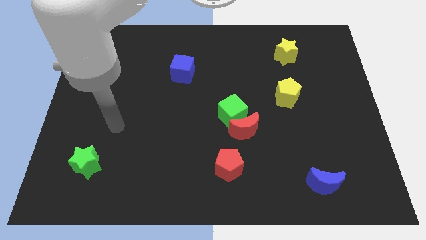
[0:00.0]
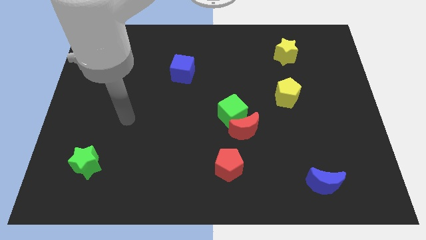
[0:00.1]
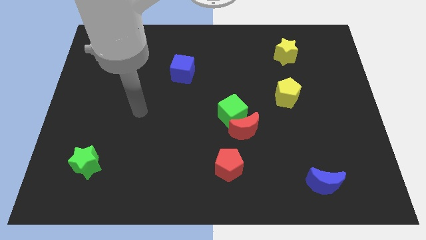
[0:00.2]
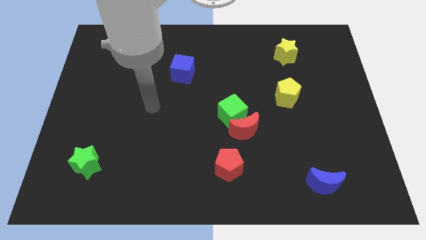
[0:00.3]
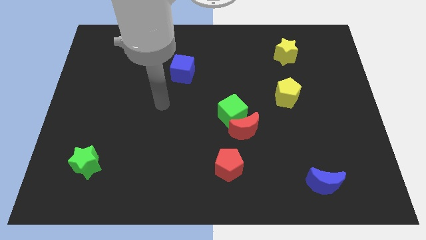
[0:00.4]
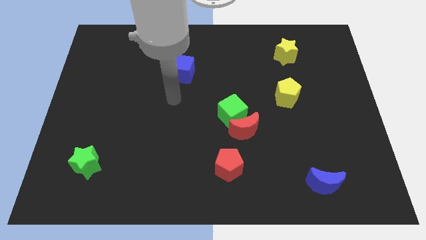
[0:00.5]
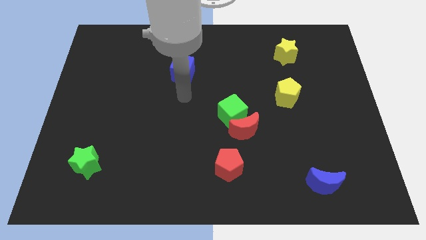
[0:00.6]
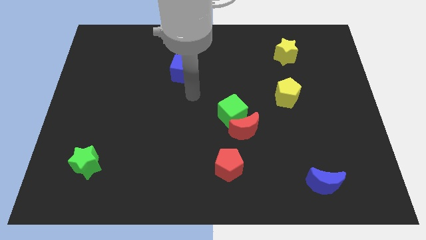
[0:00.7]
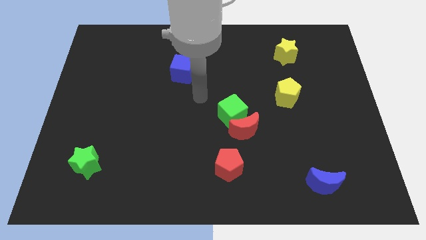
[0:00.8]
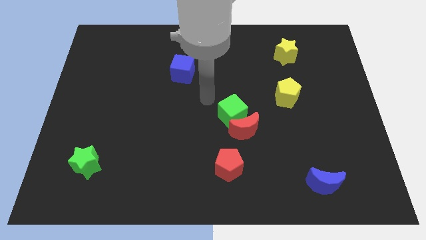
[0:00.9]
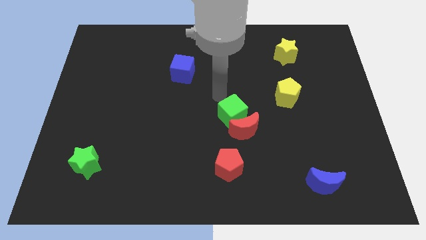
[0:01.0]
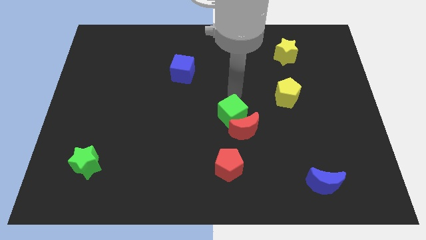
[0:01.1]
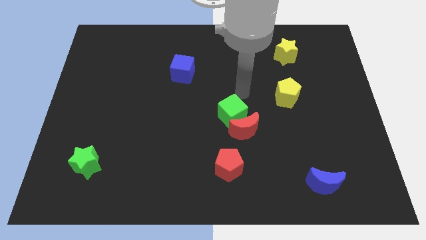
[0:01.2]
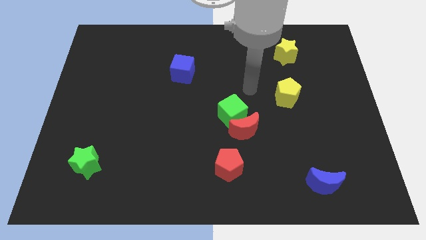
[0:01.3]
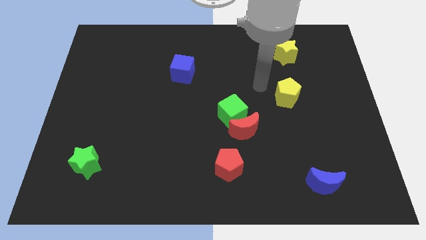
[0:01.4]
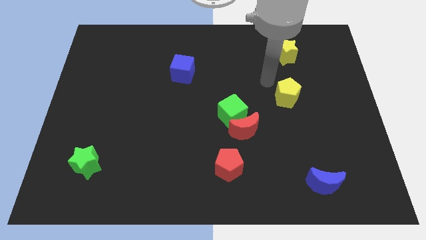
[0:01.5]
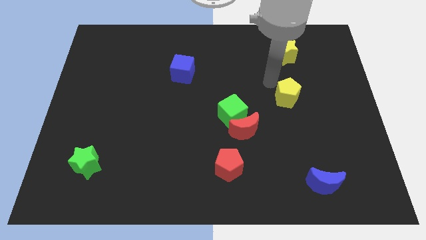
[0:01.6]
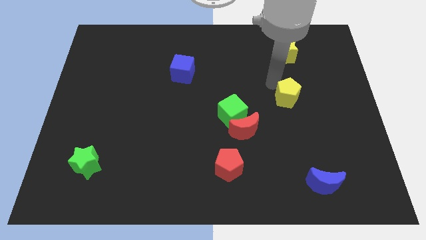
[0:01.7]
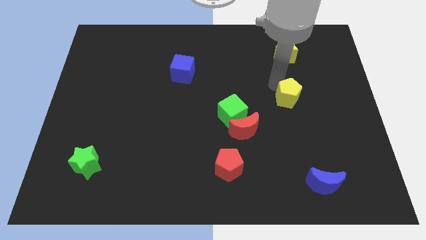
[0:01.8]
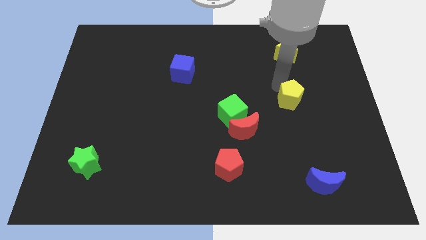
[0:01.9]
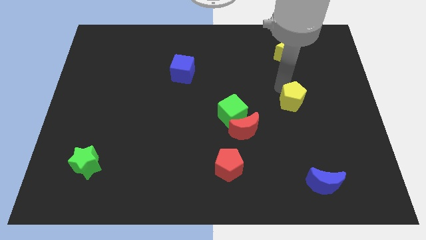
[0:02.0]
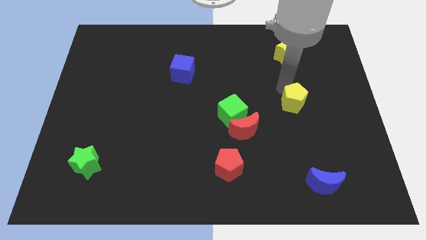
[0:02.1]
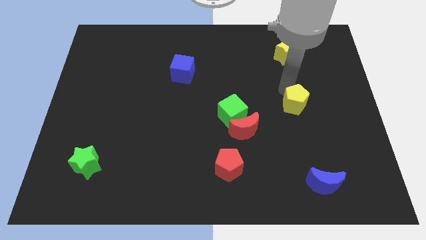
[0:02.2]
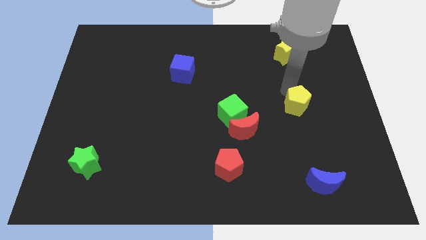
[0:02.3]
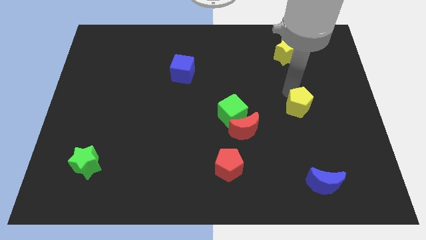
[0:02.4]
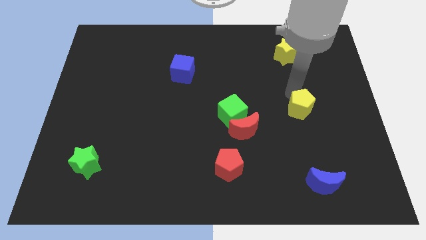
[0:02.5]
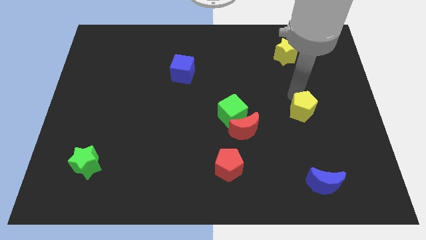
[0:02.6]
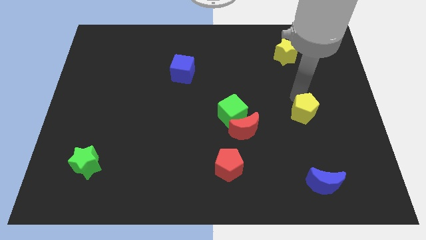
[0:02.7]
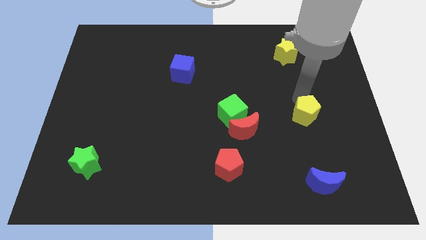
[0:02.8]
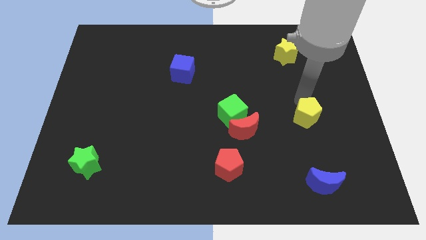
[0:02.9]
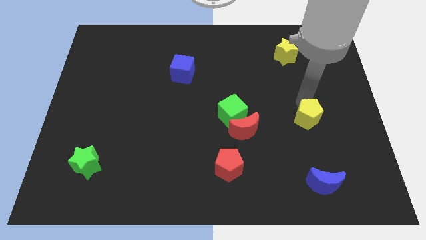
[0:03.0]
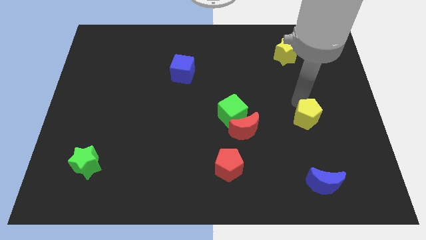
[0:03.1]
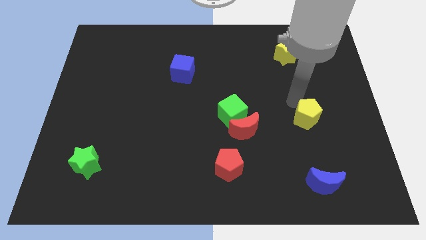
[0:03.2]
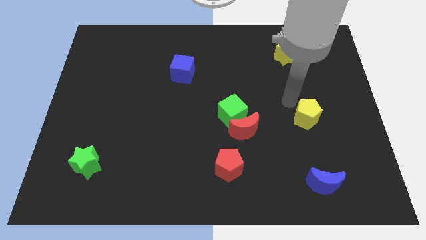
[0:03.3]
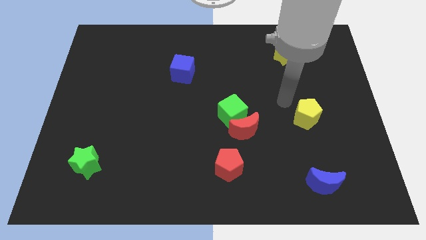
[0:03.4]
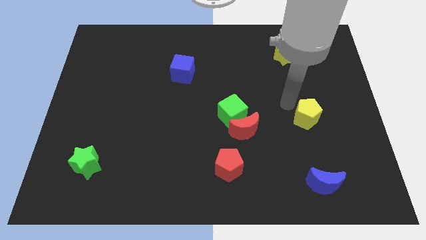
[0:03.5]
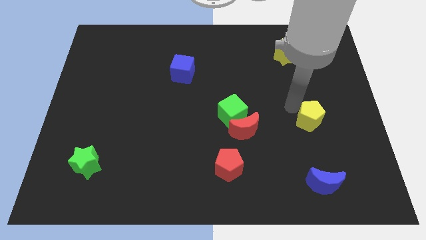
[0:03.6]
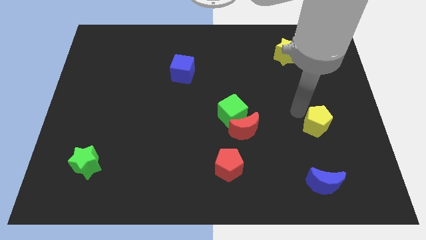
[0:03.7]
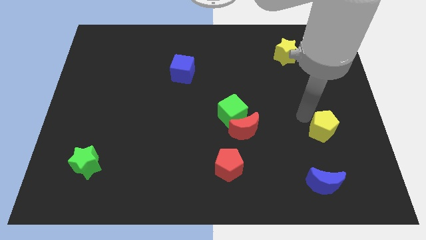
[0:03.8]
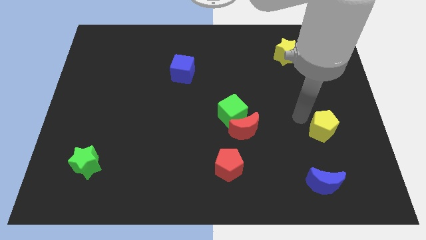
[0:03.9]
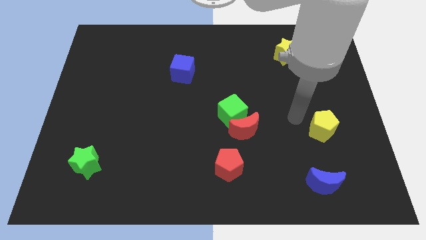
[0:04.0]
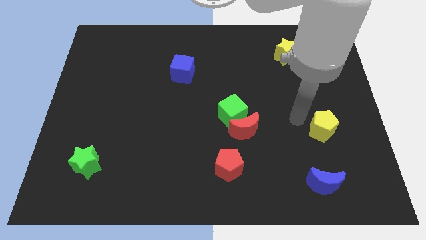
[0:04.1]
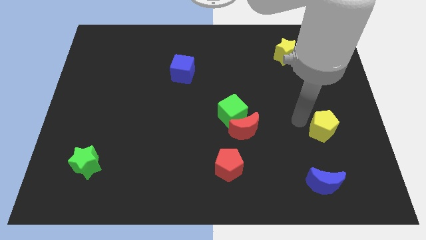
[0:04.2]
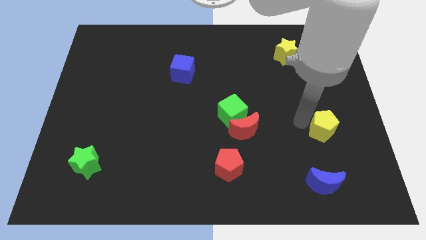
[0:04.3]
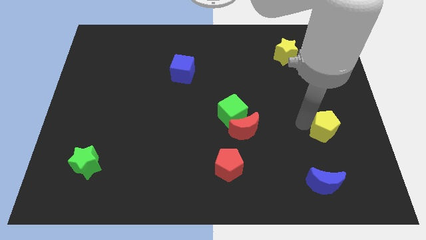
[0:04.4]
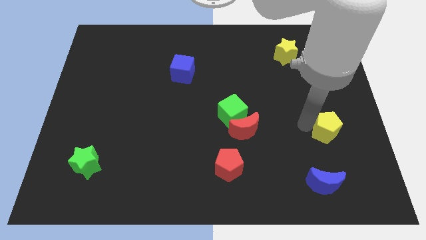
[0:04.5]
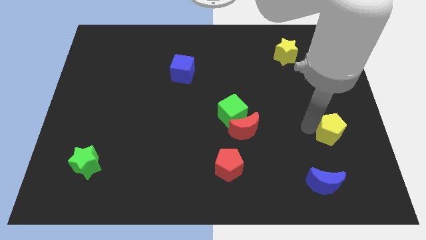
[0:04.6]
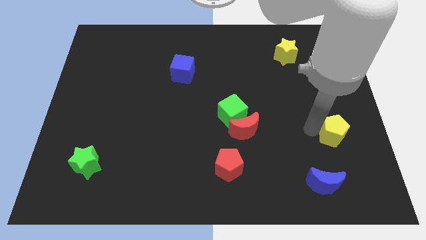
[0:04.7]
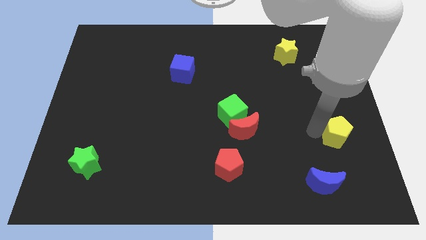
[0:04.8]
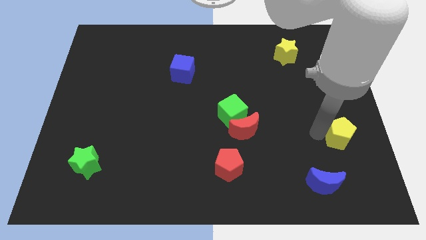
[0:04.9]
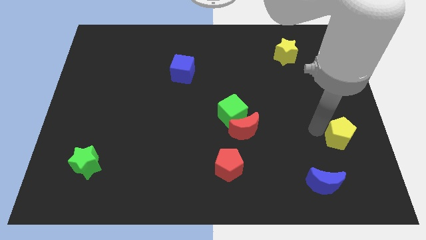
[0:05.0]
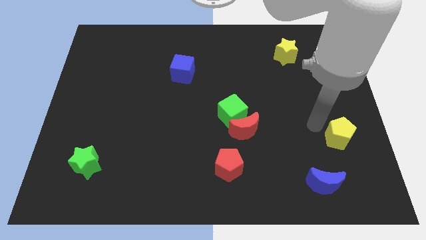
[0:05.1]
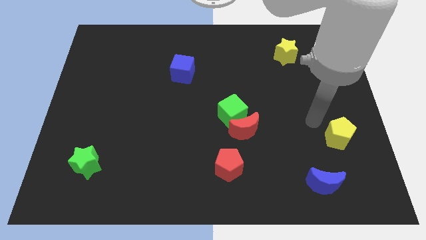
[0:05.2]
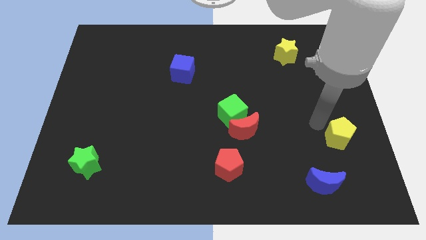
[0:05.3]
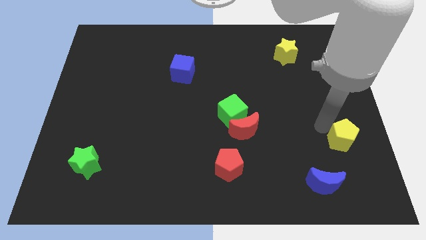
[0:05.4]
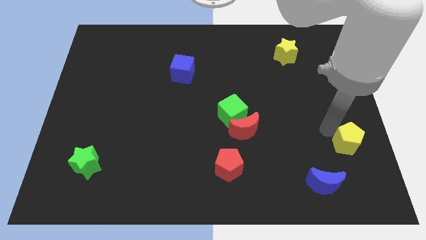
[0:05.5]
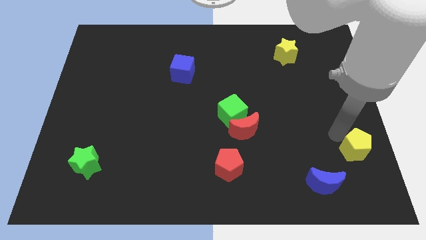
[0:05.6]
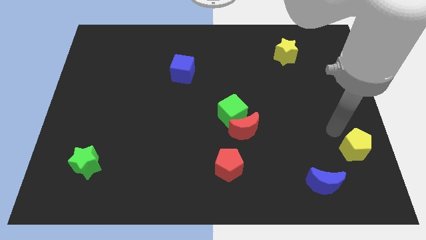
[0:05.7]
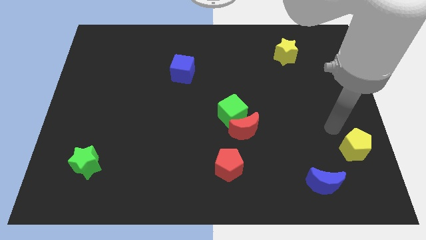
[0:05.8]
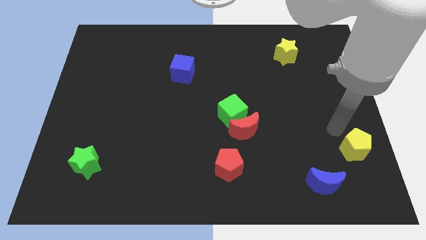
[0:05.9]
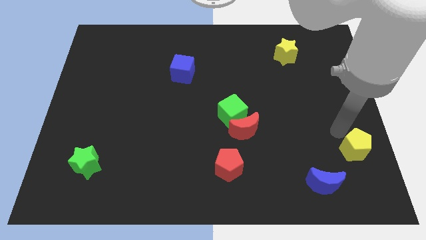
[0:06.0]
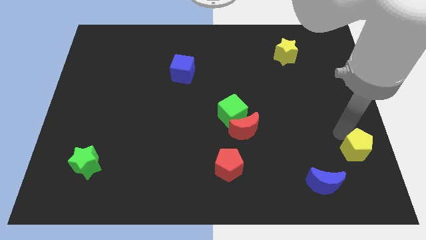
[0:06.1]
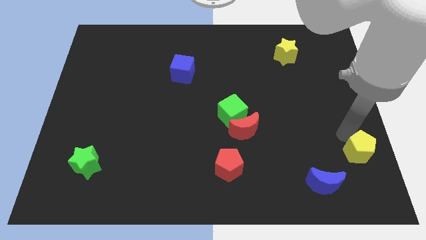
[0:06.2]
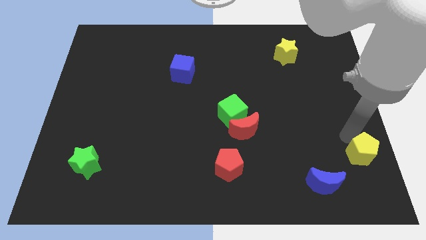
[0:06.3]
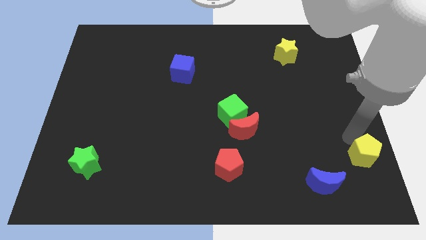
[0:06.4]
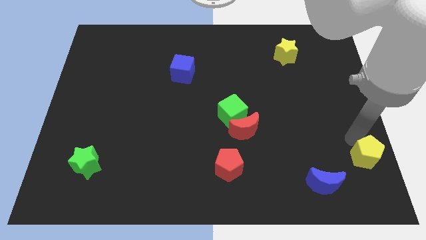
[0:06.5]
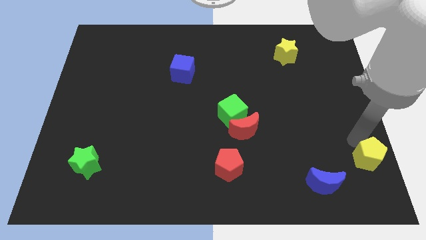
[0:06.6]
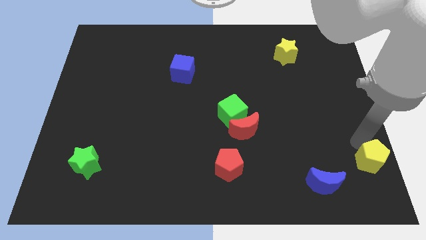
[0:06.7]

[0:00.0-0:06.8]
put the yellow pentagon to the bottom right of the board
